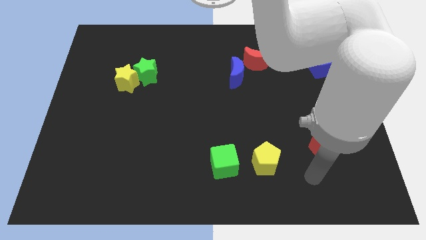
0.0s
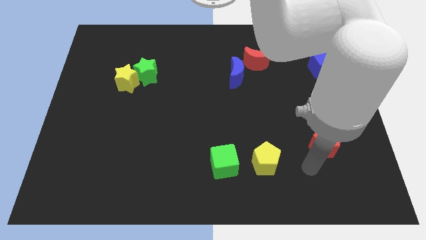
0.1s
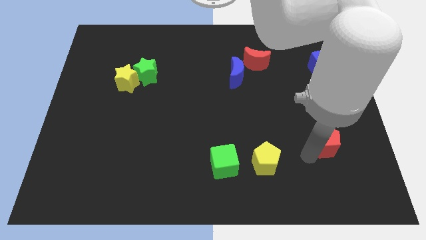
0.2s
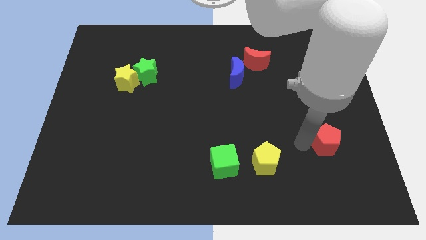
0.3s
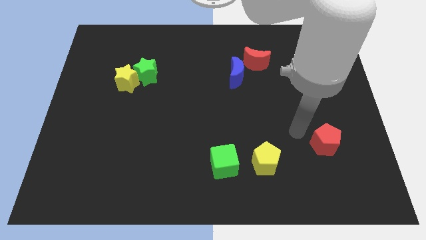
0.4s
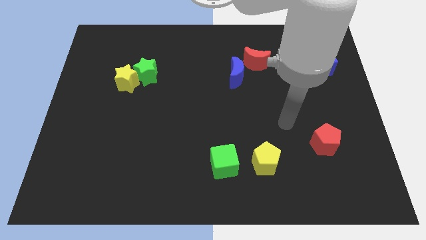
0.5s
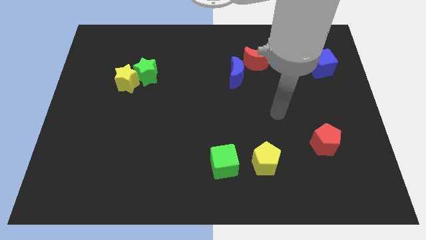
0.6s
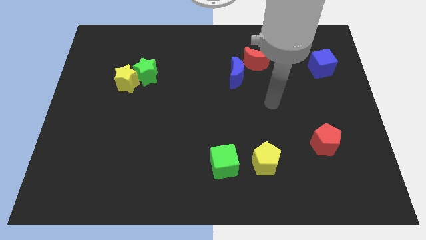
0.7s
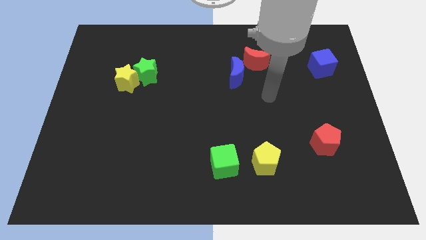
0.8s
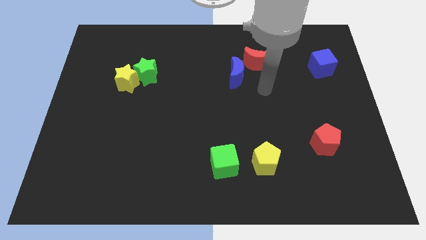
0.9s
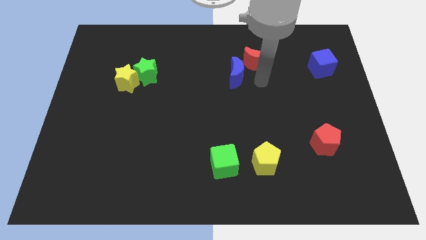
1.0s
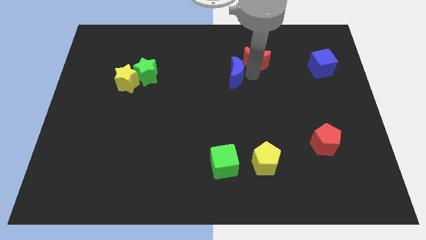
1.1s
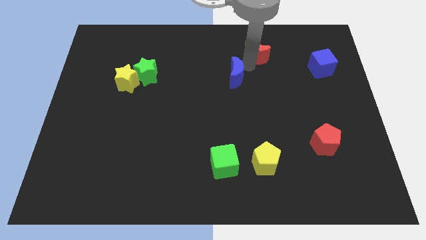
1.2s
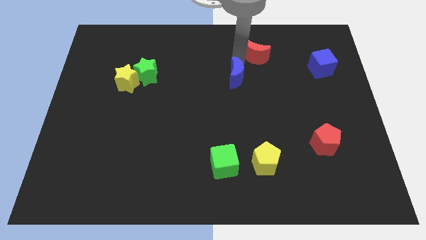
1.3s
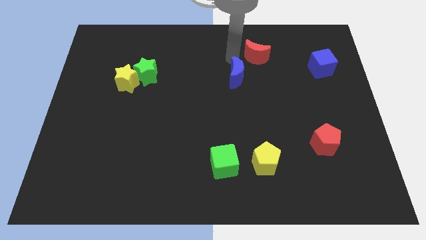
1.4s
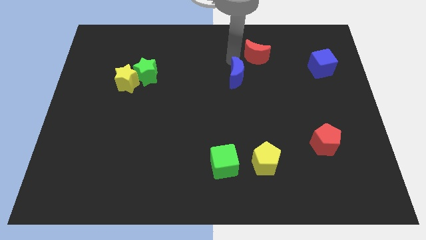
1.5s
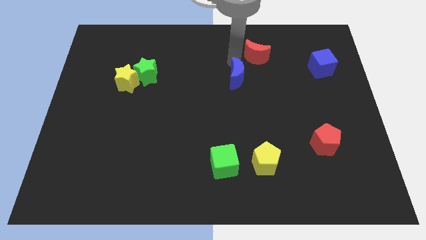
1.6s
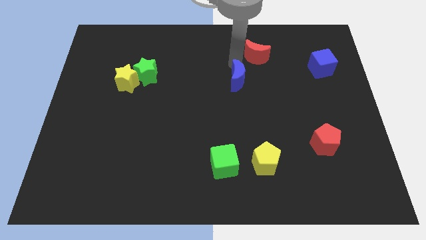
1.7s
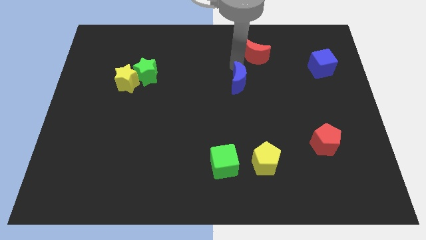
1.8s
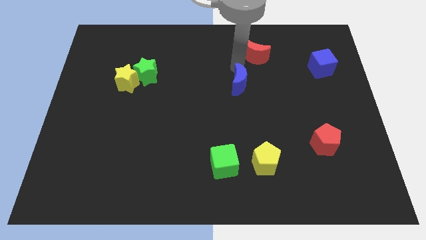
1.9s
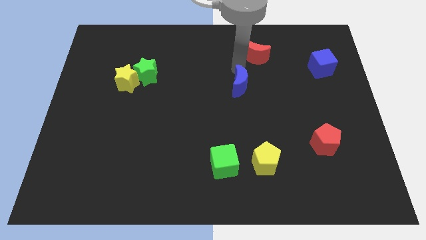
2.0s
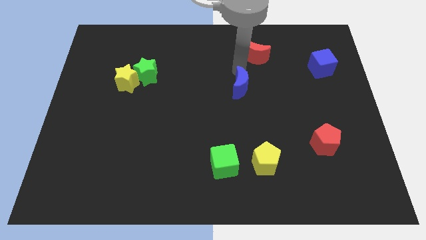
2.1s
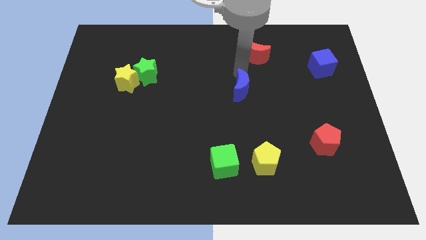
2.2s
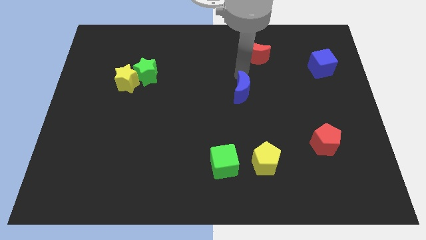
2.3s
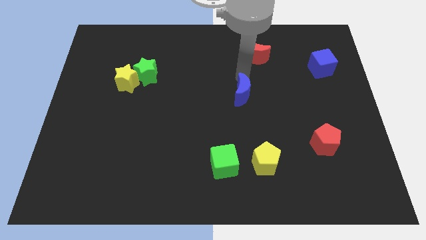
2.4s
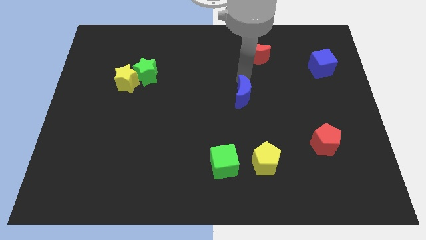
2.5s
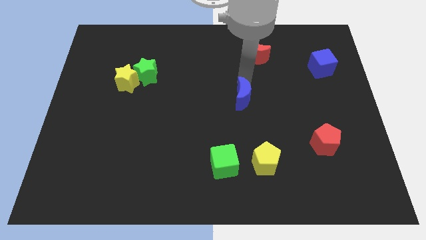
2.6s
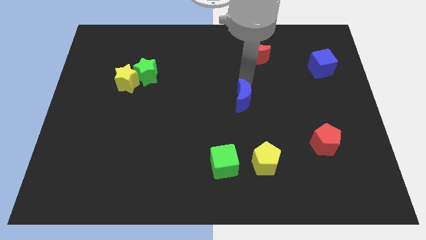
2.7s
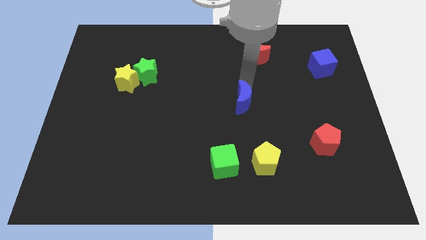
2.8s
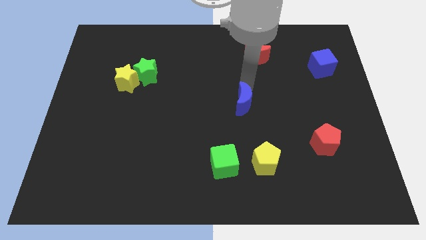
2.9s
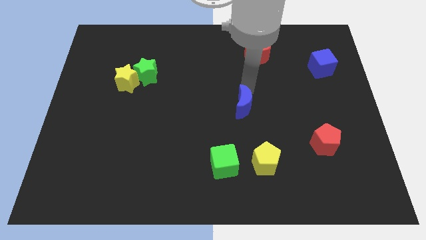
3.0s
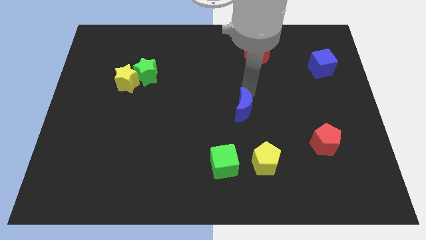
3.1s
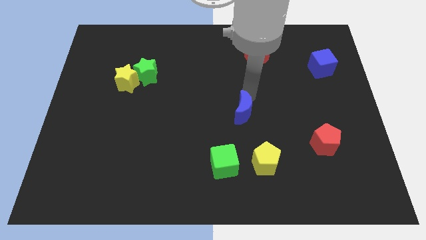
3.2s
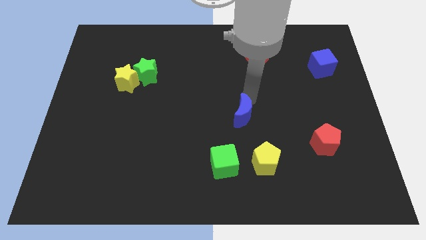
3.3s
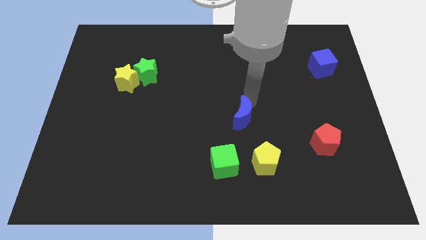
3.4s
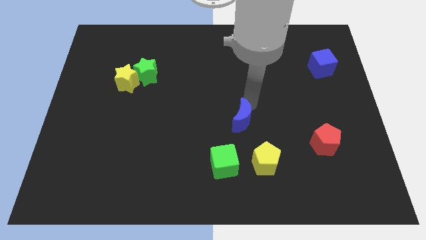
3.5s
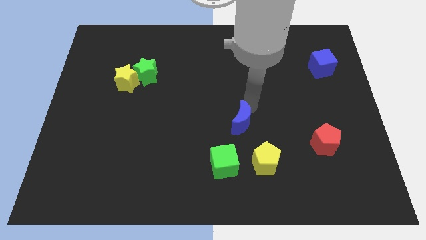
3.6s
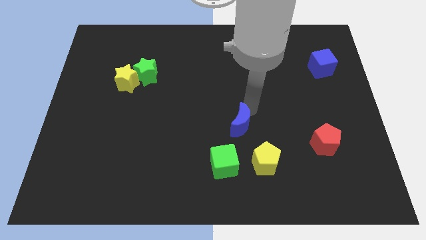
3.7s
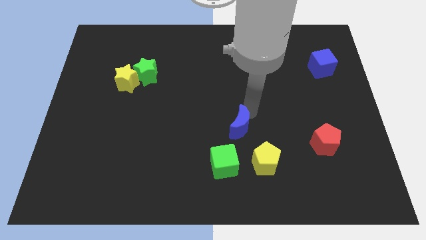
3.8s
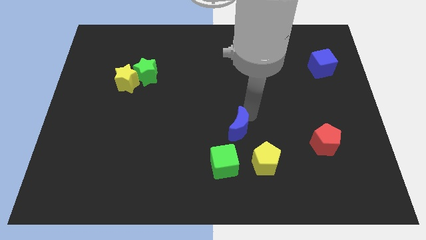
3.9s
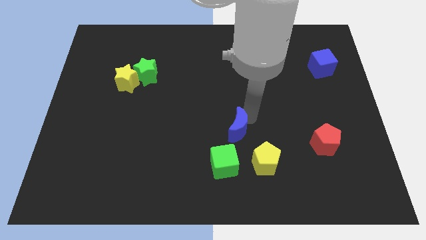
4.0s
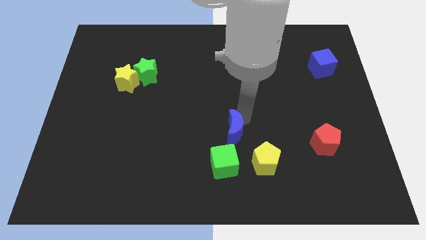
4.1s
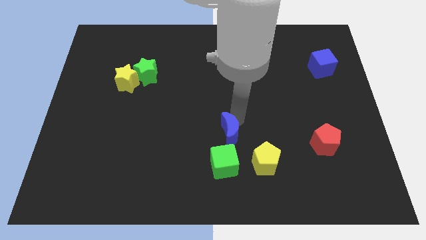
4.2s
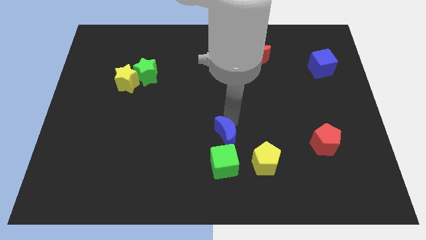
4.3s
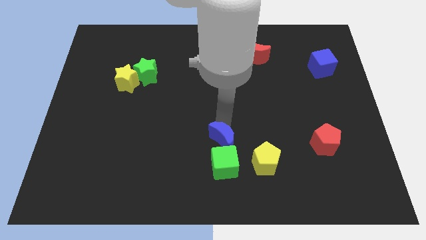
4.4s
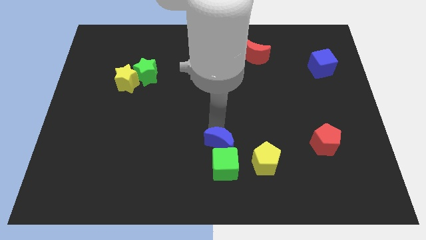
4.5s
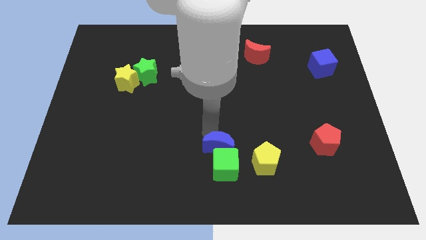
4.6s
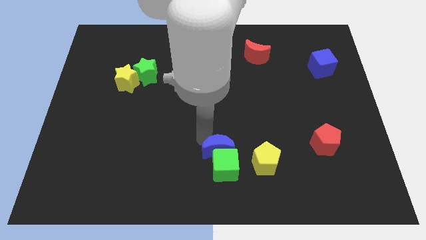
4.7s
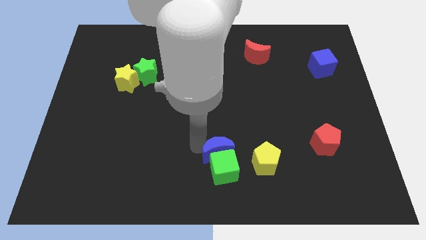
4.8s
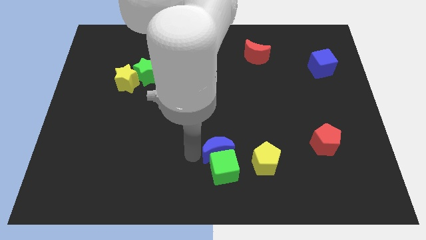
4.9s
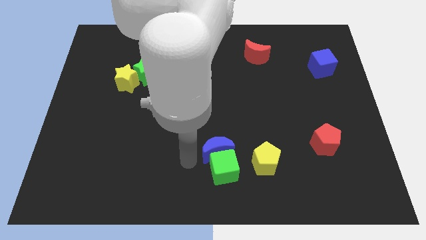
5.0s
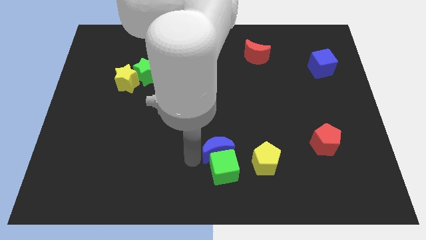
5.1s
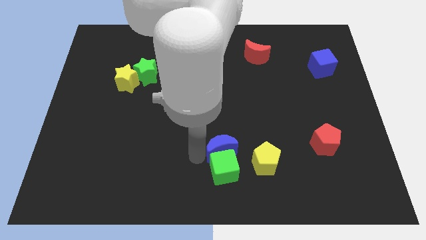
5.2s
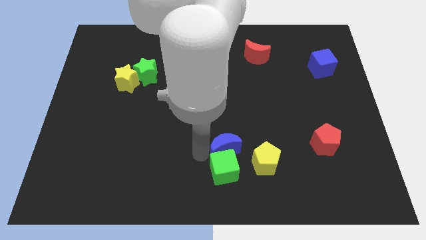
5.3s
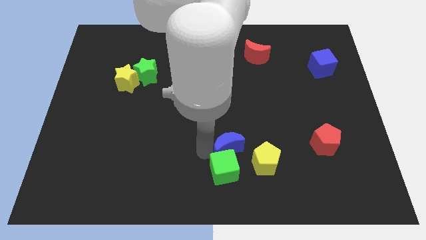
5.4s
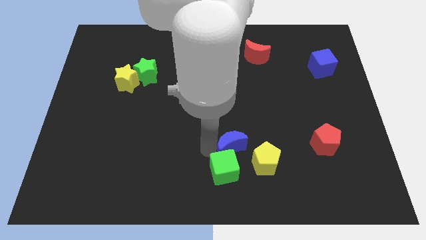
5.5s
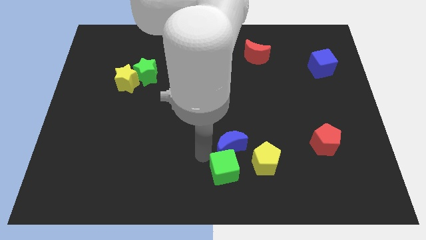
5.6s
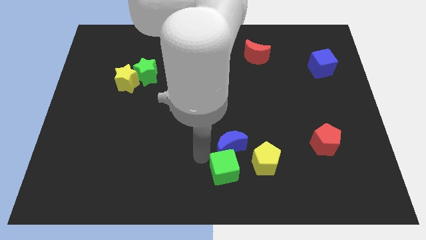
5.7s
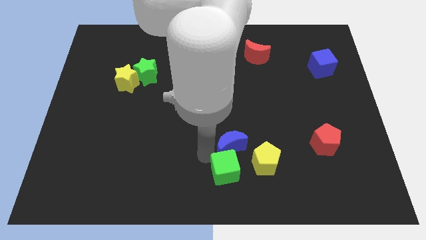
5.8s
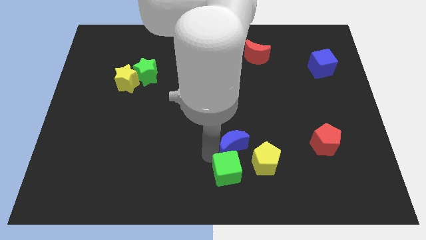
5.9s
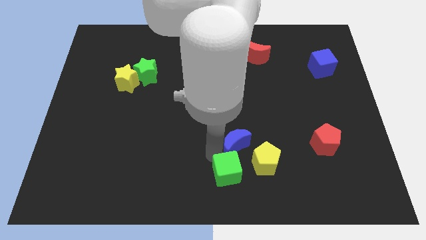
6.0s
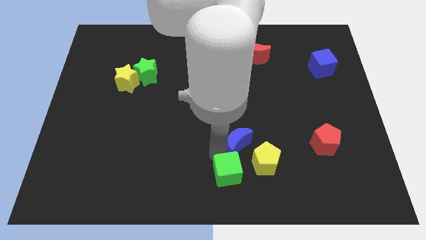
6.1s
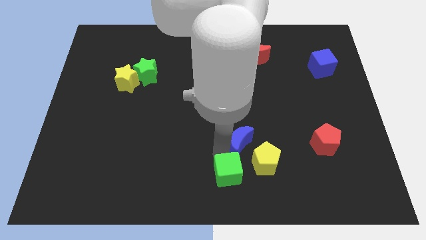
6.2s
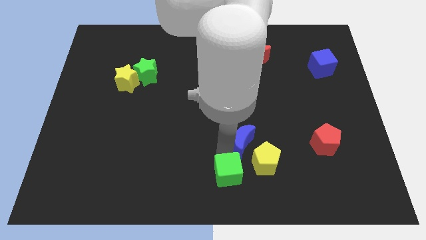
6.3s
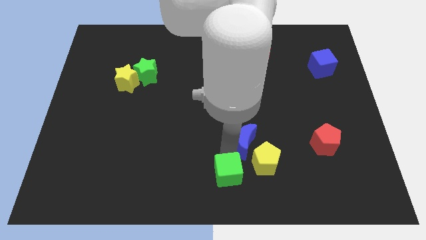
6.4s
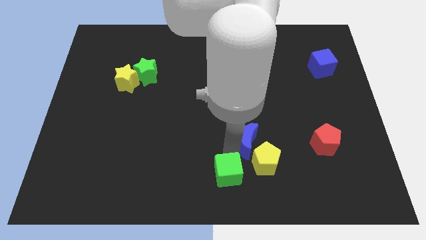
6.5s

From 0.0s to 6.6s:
push the blue moon close to the yellow pentagon

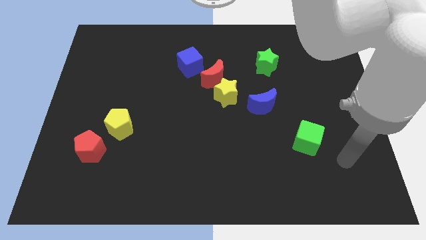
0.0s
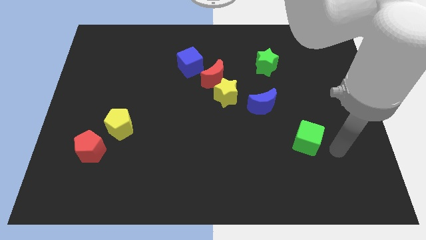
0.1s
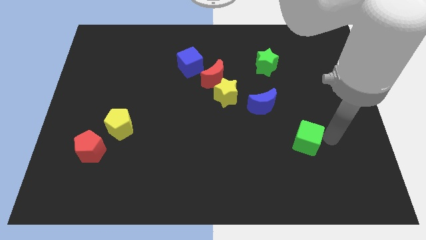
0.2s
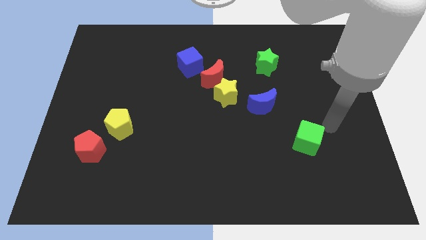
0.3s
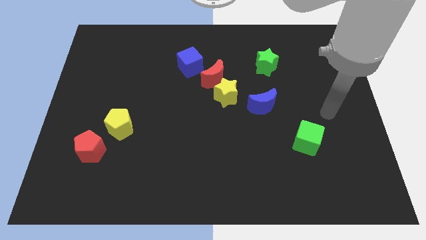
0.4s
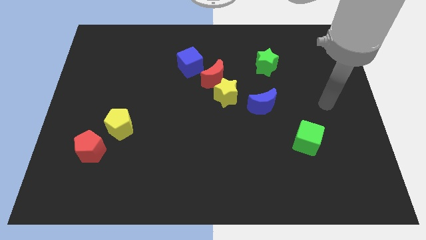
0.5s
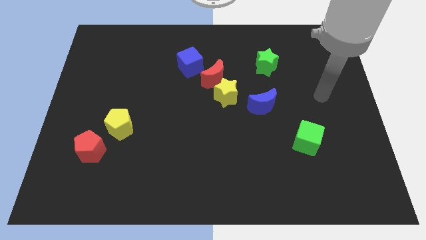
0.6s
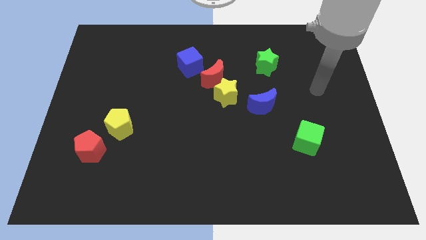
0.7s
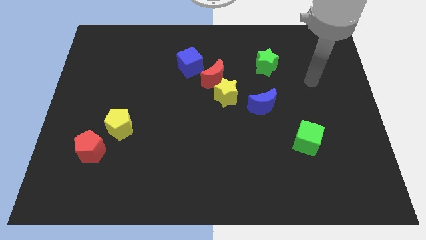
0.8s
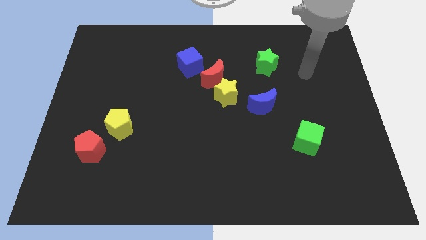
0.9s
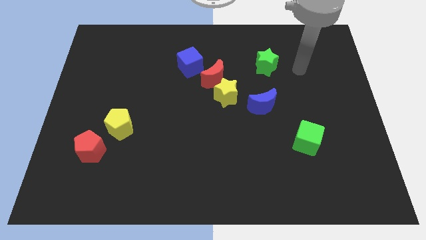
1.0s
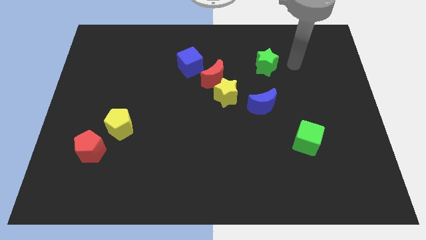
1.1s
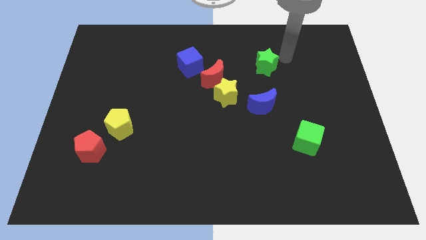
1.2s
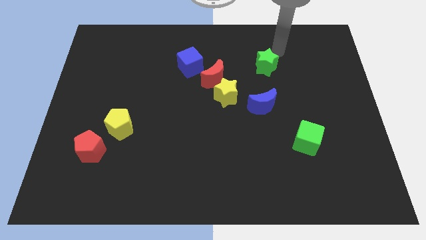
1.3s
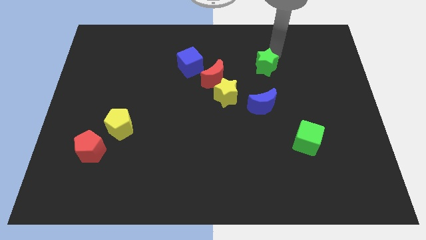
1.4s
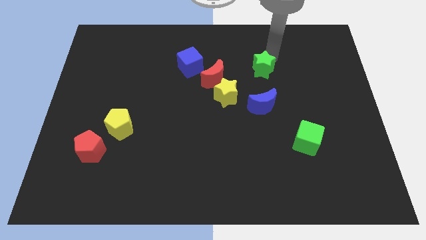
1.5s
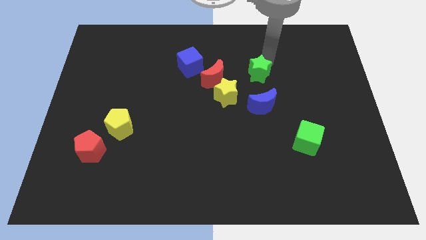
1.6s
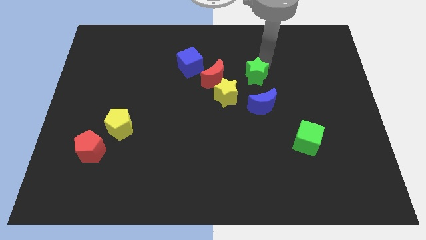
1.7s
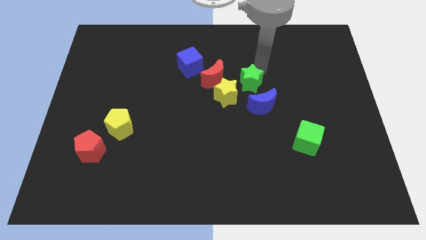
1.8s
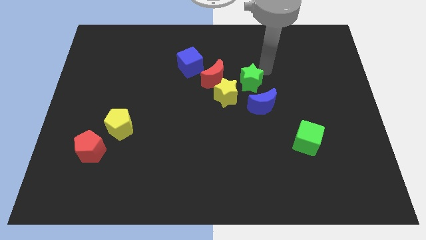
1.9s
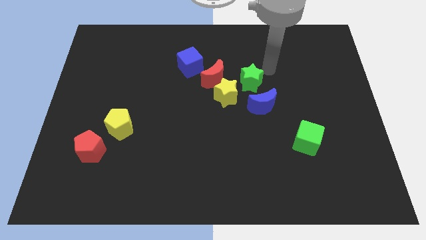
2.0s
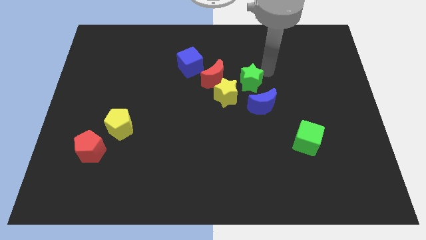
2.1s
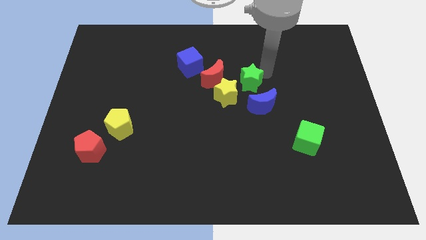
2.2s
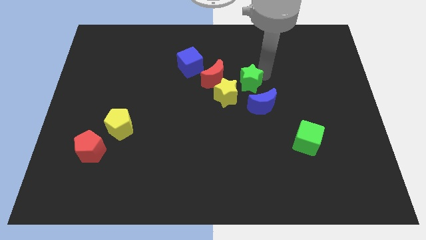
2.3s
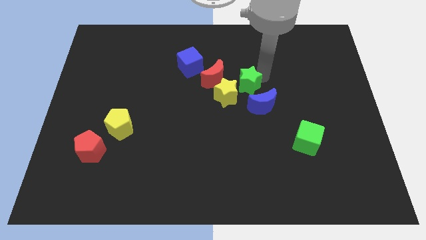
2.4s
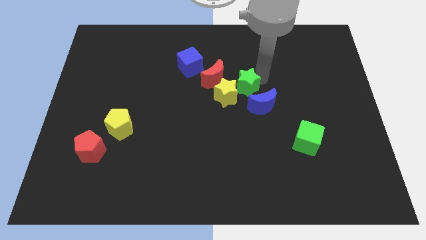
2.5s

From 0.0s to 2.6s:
move the green star close to the yellow star
